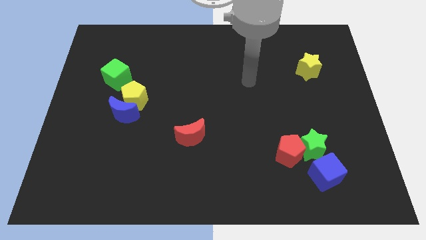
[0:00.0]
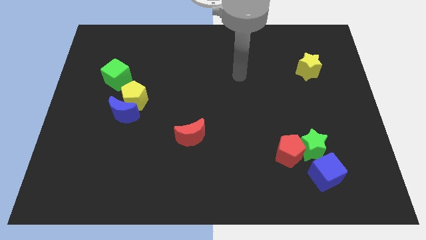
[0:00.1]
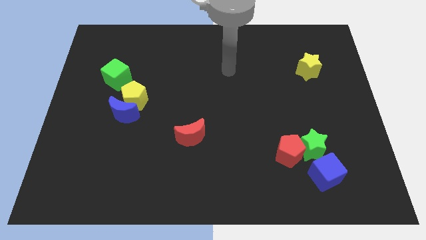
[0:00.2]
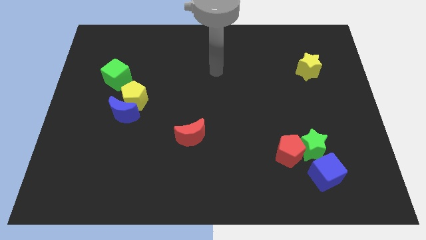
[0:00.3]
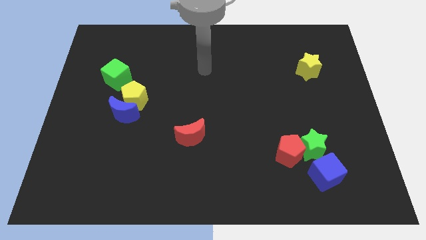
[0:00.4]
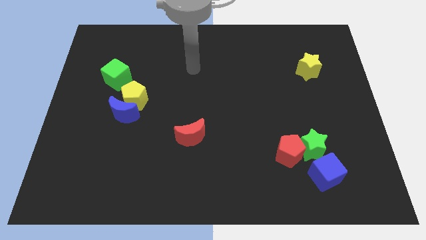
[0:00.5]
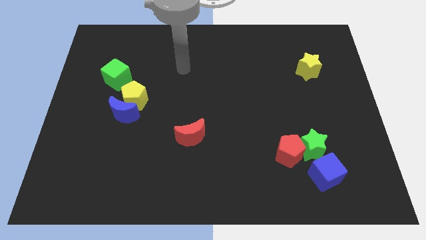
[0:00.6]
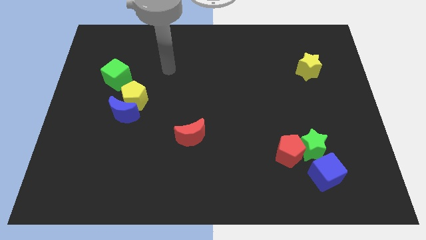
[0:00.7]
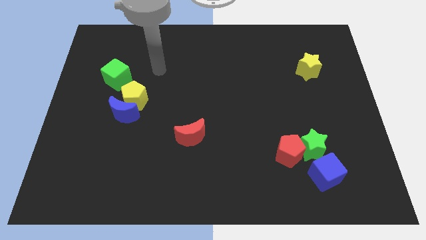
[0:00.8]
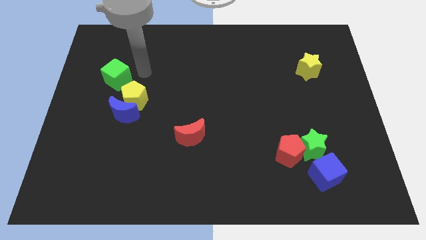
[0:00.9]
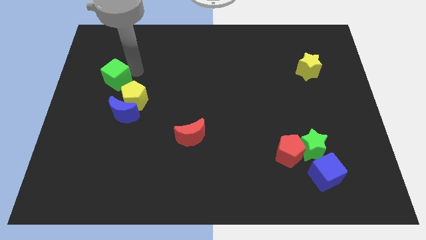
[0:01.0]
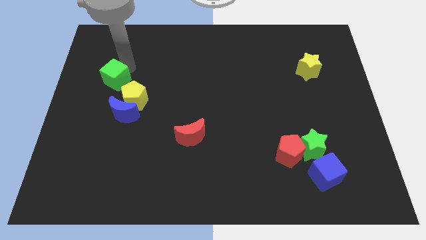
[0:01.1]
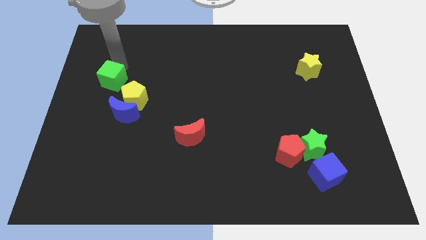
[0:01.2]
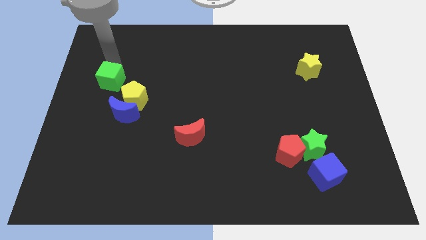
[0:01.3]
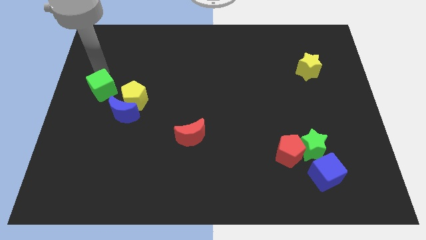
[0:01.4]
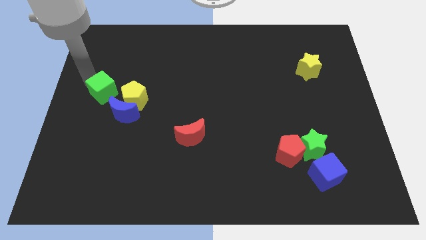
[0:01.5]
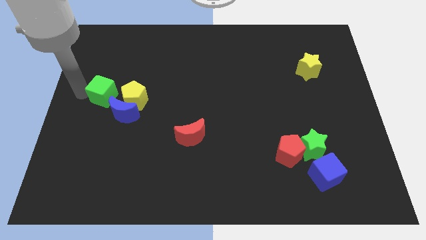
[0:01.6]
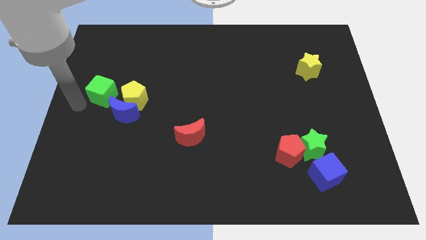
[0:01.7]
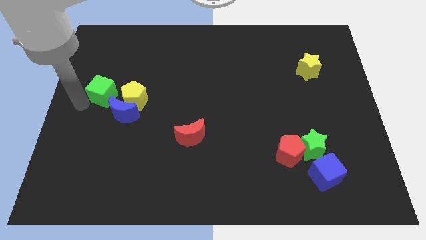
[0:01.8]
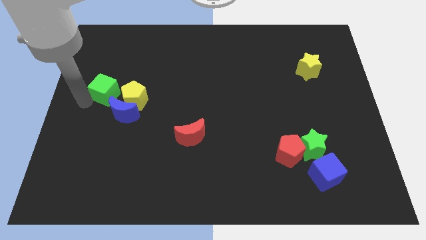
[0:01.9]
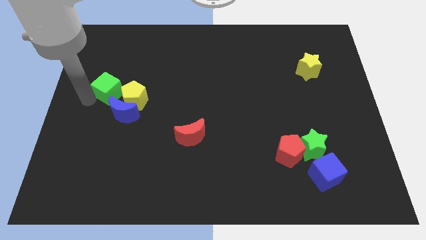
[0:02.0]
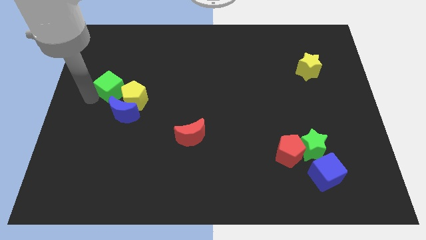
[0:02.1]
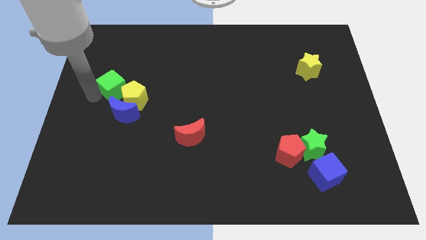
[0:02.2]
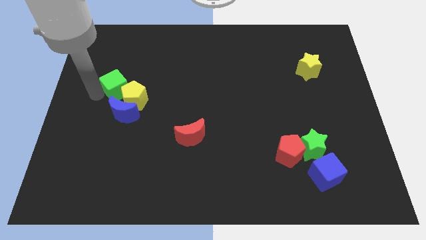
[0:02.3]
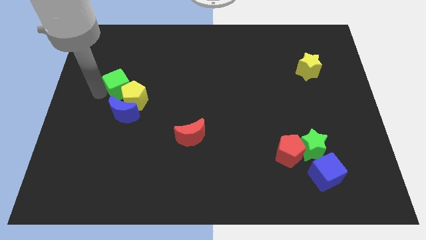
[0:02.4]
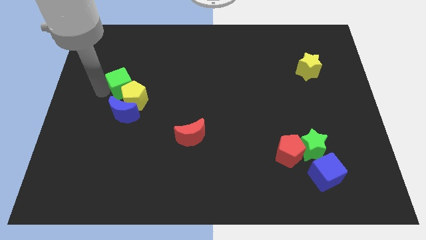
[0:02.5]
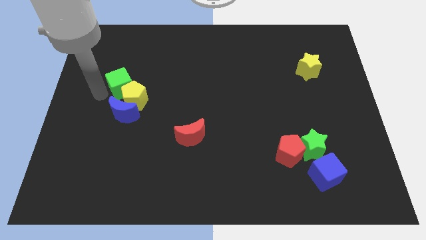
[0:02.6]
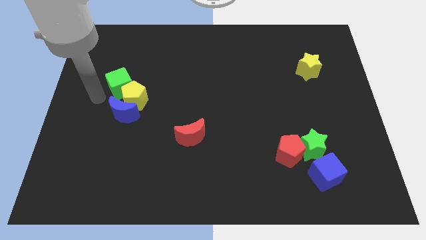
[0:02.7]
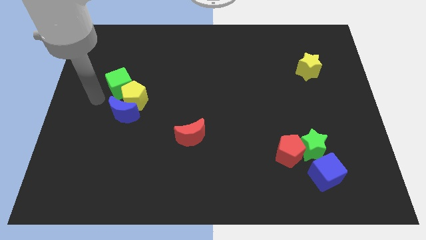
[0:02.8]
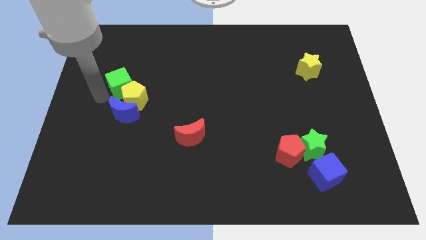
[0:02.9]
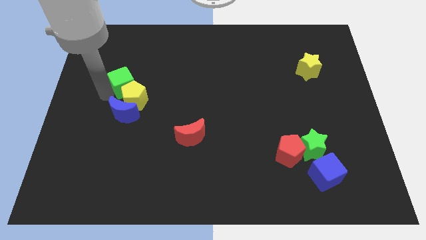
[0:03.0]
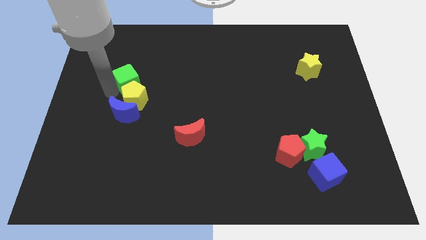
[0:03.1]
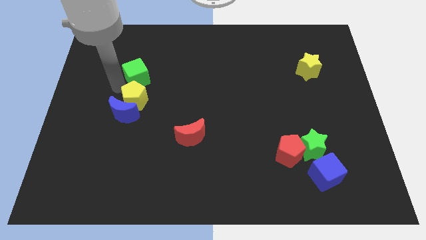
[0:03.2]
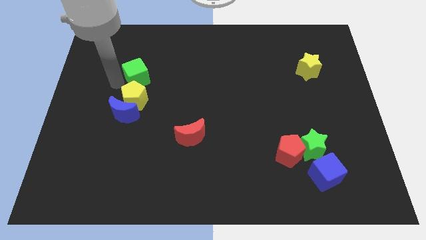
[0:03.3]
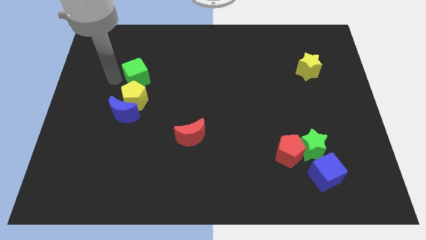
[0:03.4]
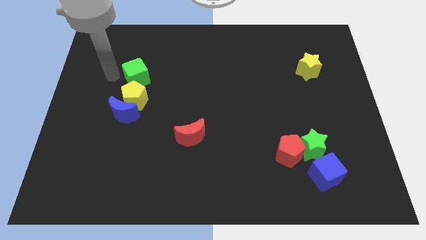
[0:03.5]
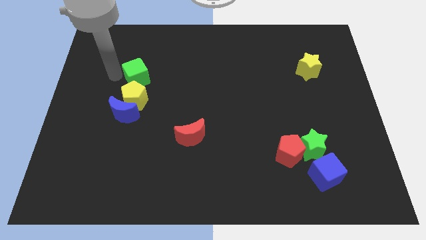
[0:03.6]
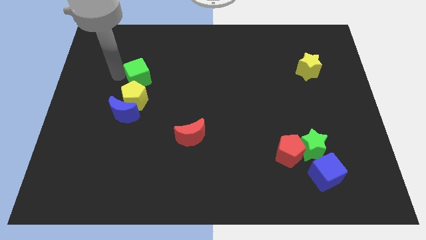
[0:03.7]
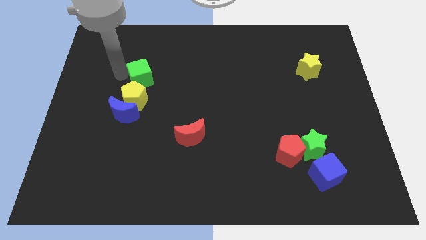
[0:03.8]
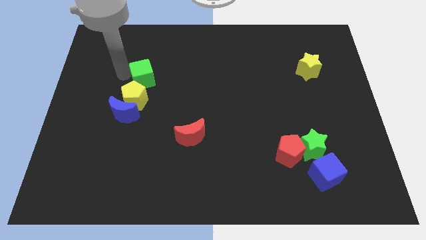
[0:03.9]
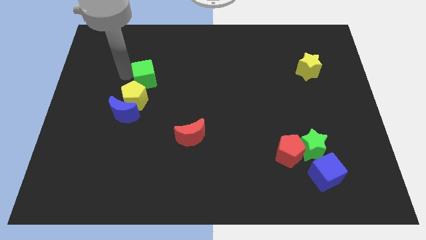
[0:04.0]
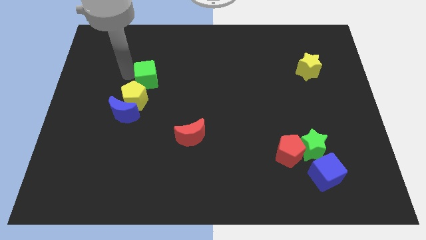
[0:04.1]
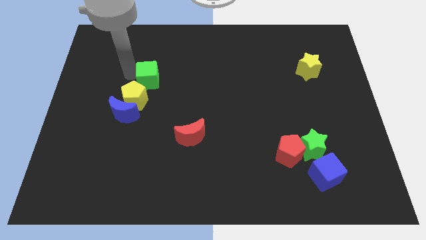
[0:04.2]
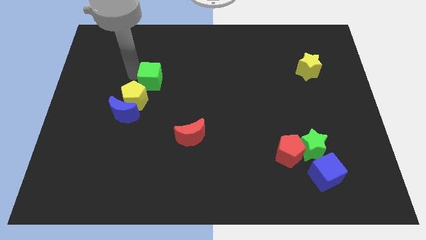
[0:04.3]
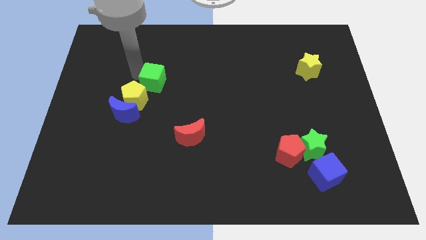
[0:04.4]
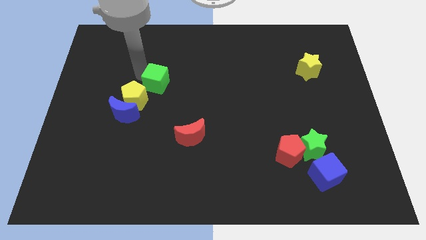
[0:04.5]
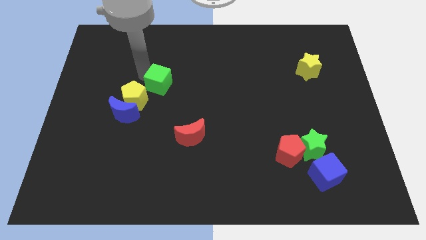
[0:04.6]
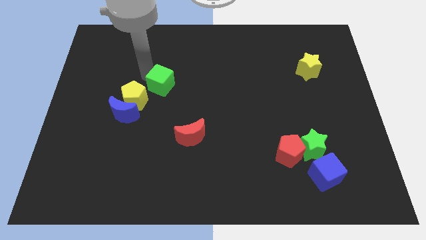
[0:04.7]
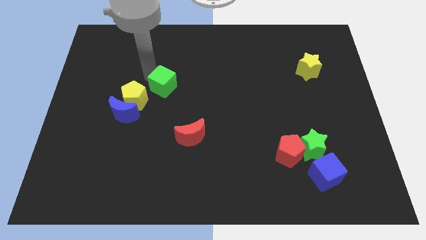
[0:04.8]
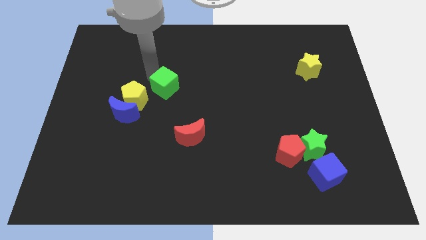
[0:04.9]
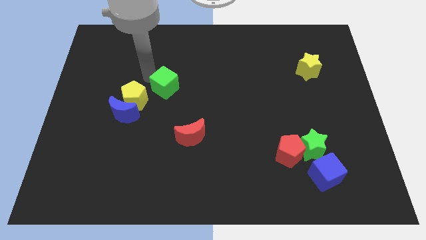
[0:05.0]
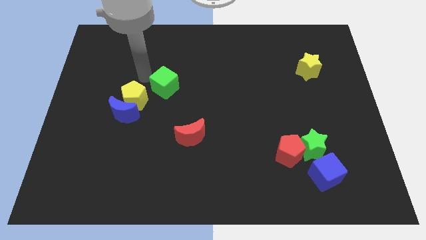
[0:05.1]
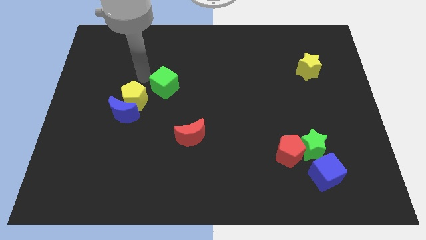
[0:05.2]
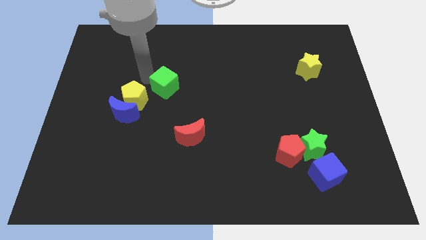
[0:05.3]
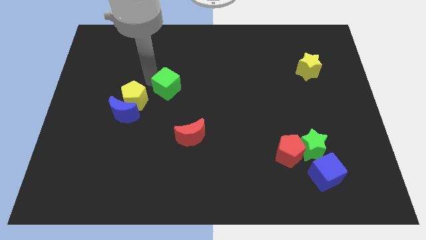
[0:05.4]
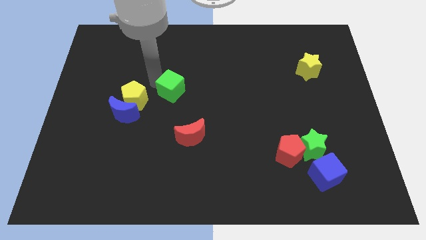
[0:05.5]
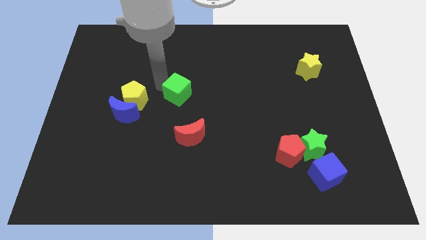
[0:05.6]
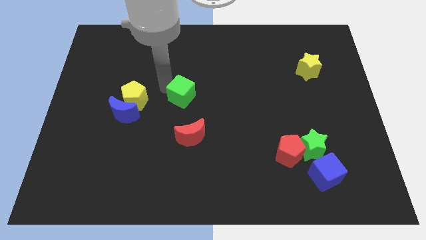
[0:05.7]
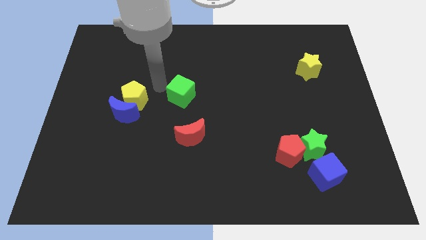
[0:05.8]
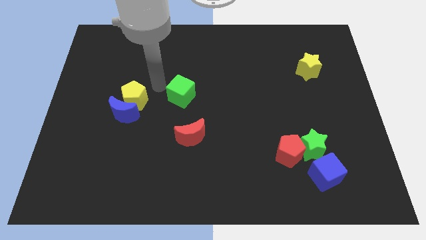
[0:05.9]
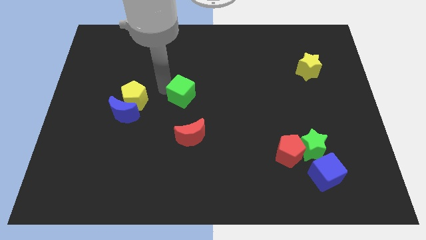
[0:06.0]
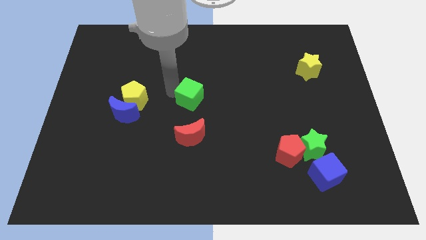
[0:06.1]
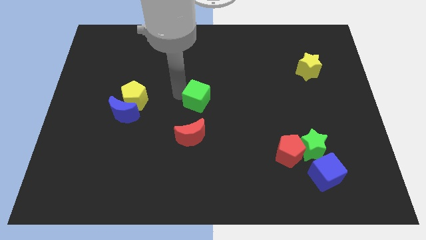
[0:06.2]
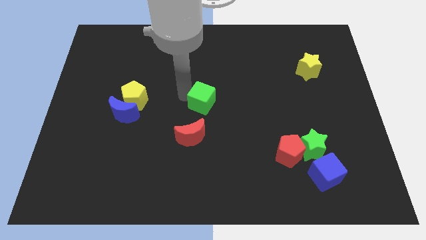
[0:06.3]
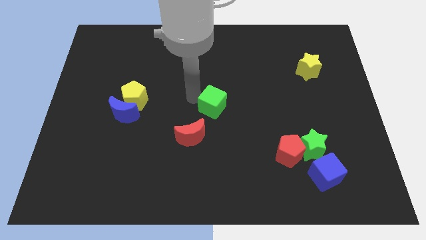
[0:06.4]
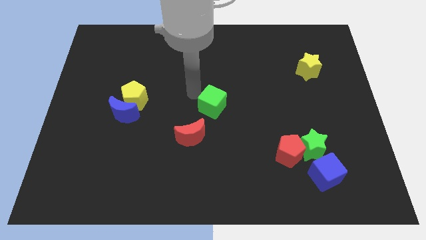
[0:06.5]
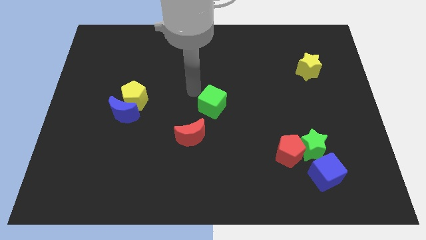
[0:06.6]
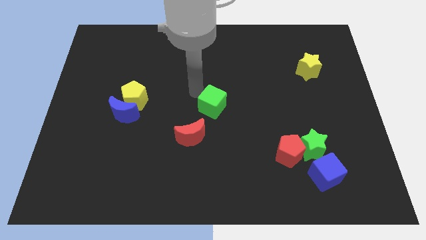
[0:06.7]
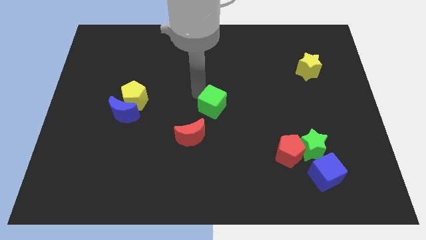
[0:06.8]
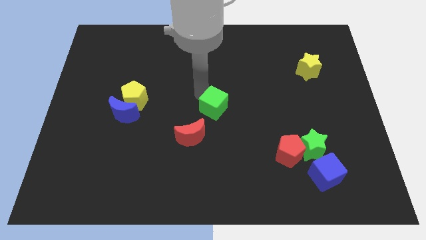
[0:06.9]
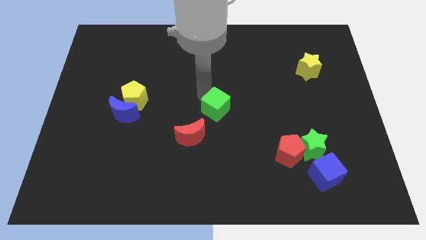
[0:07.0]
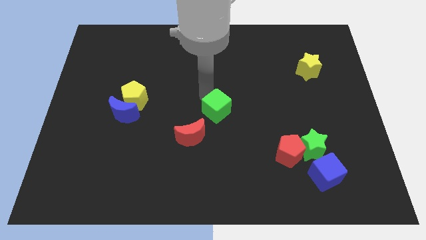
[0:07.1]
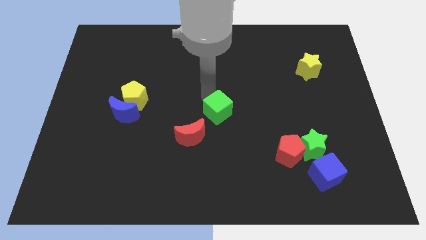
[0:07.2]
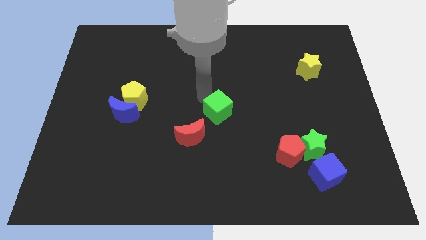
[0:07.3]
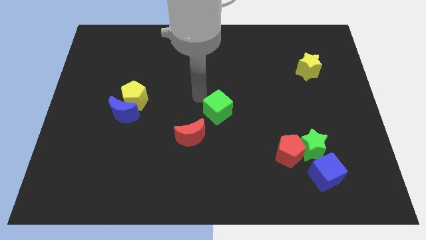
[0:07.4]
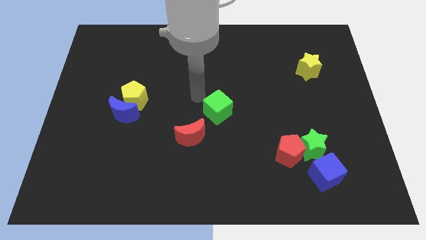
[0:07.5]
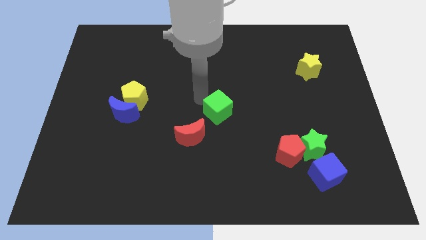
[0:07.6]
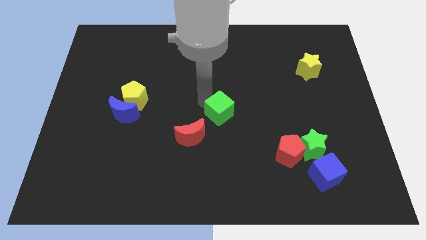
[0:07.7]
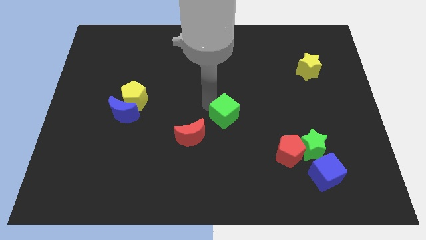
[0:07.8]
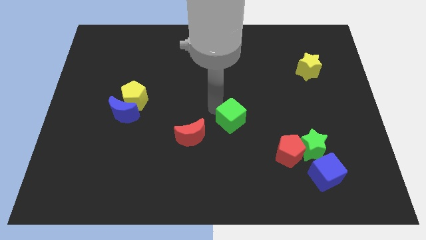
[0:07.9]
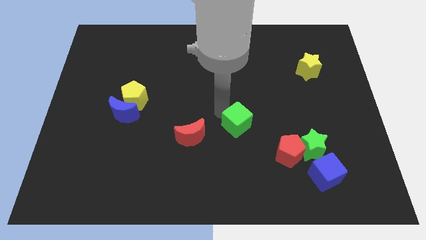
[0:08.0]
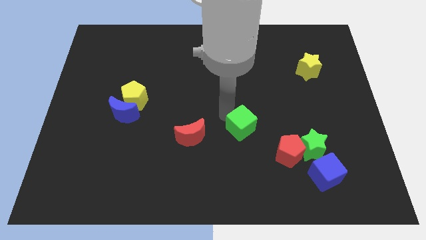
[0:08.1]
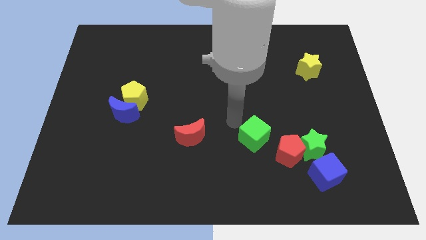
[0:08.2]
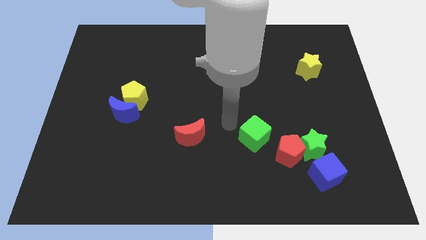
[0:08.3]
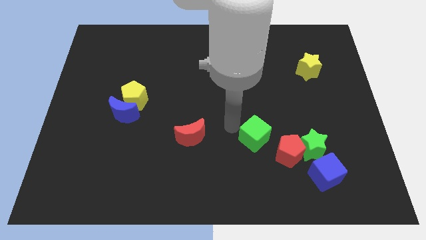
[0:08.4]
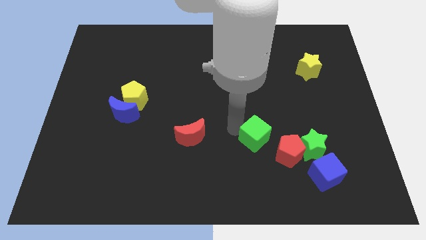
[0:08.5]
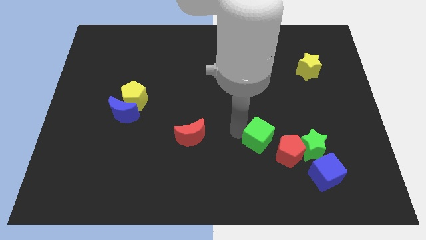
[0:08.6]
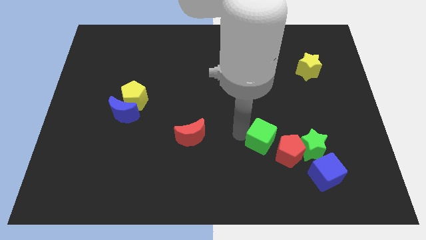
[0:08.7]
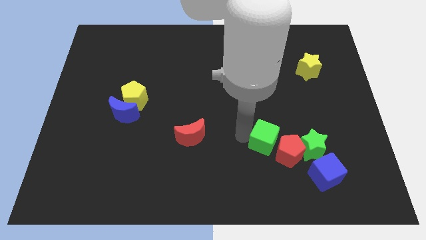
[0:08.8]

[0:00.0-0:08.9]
put the green cube close to the red pentagon
